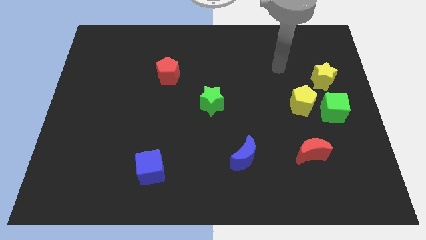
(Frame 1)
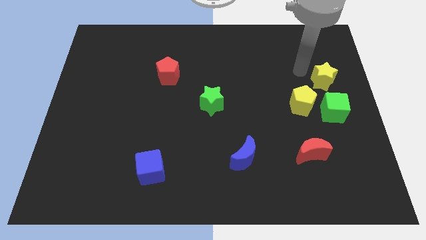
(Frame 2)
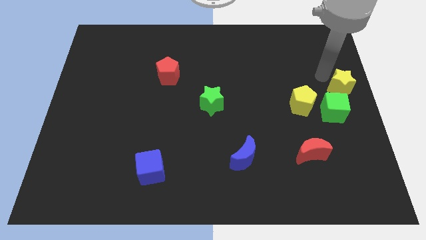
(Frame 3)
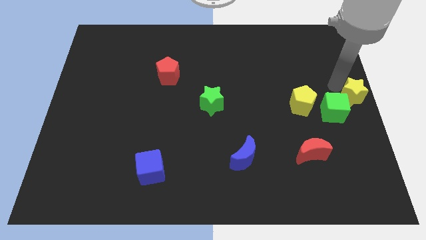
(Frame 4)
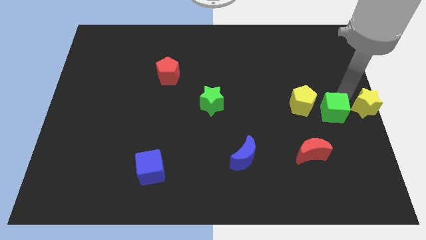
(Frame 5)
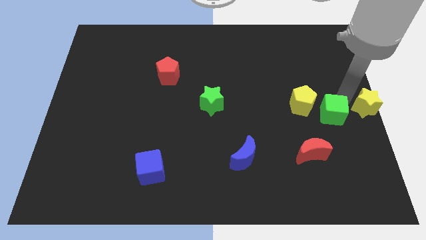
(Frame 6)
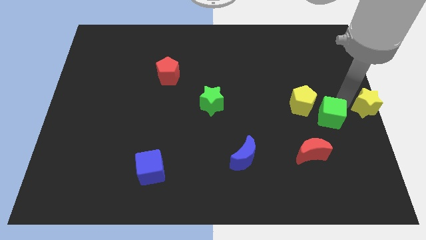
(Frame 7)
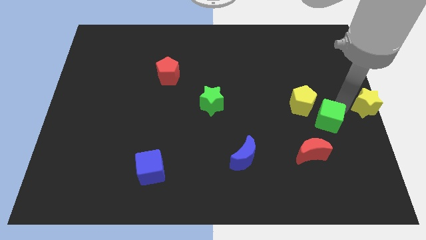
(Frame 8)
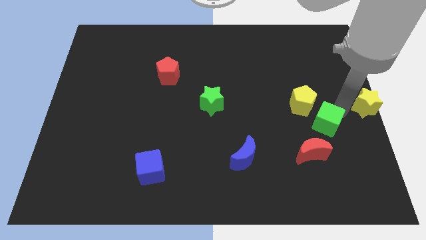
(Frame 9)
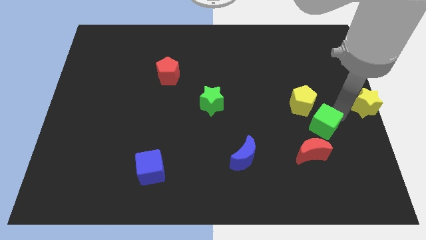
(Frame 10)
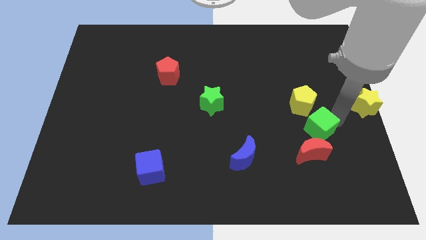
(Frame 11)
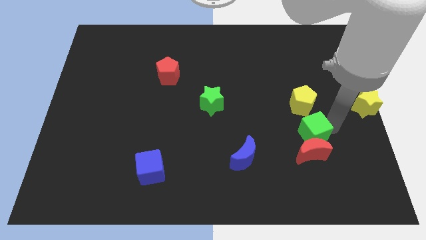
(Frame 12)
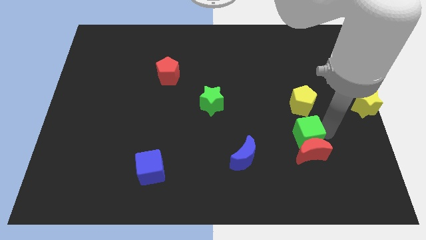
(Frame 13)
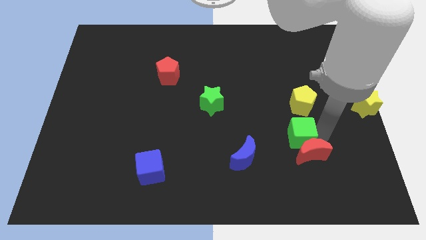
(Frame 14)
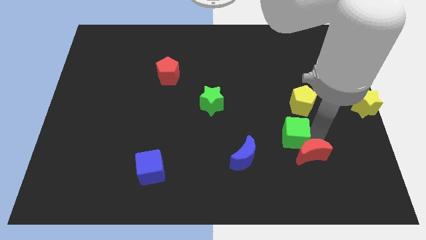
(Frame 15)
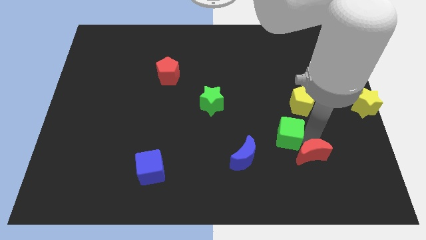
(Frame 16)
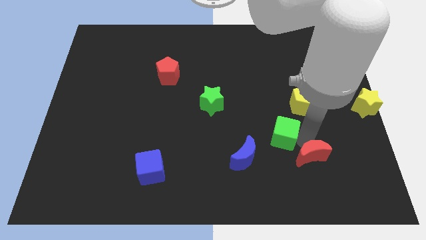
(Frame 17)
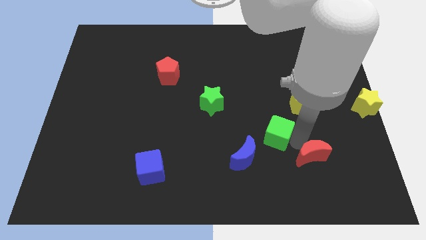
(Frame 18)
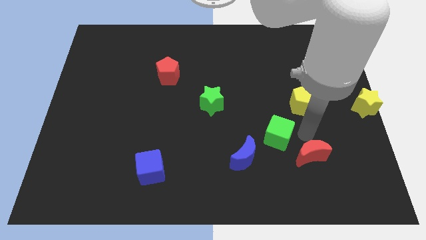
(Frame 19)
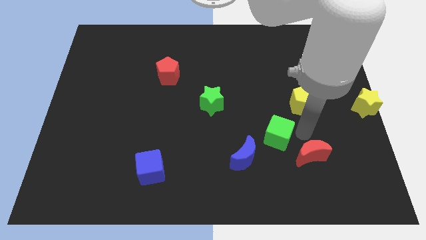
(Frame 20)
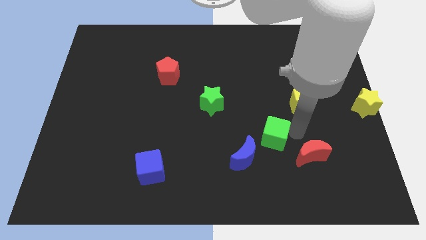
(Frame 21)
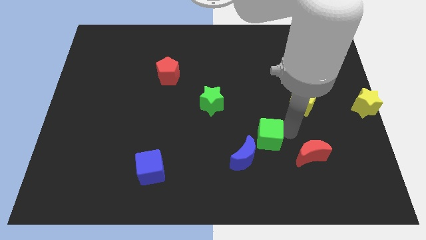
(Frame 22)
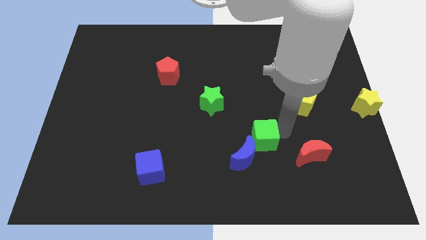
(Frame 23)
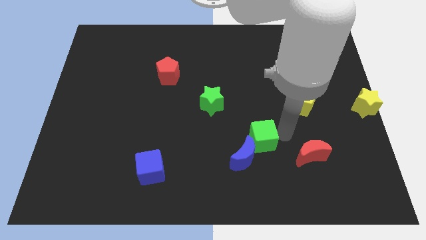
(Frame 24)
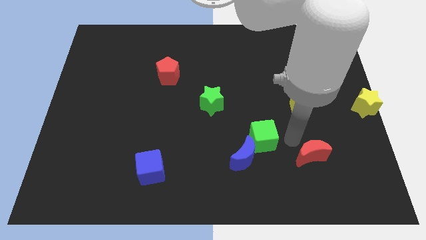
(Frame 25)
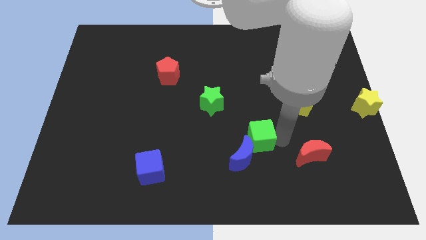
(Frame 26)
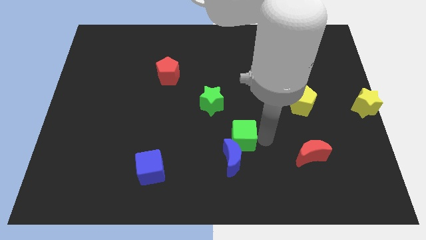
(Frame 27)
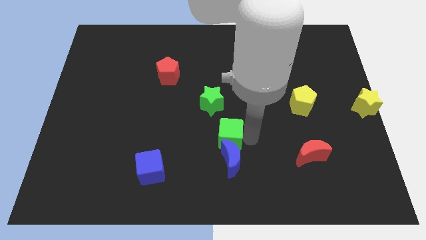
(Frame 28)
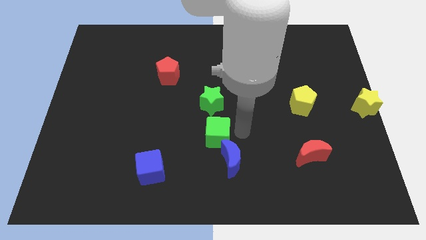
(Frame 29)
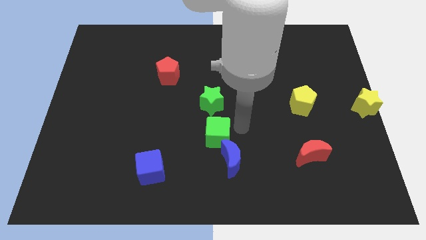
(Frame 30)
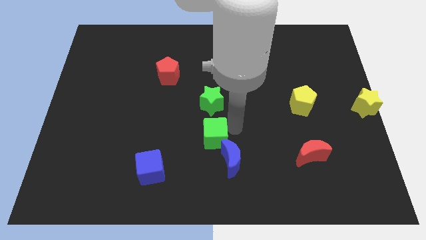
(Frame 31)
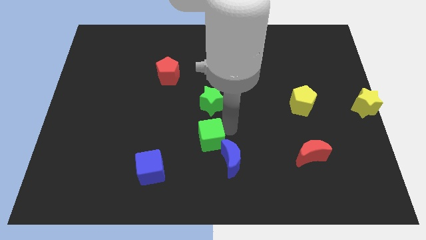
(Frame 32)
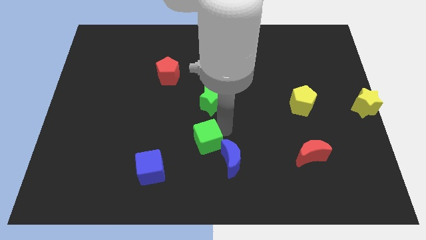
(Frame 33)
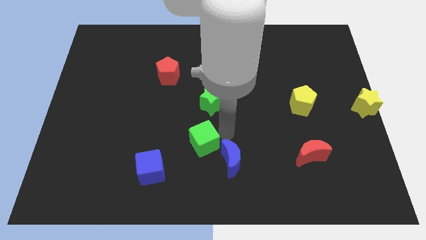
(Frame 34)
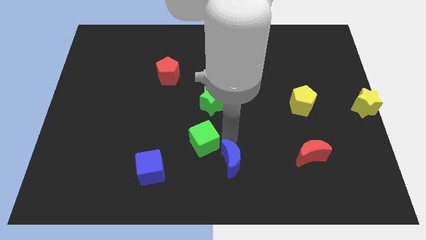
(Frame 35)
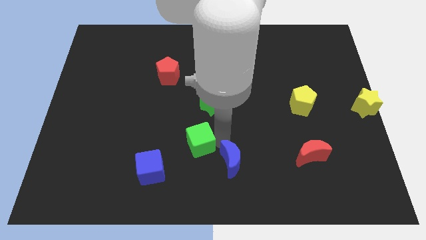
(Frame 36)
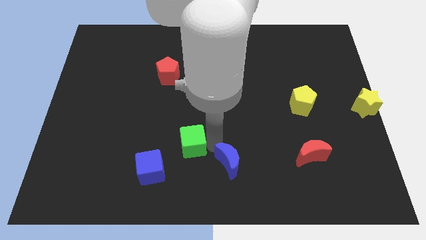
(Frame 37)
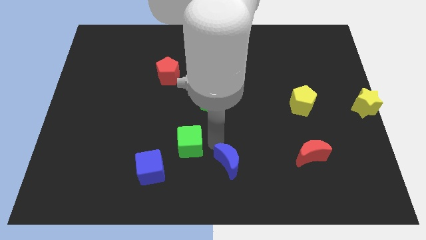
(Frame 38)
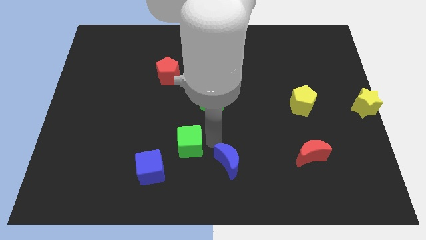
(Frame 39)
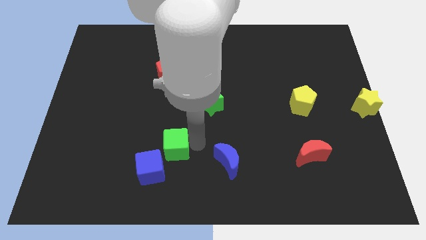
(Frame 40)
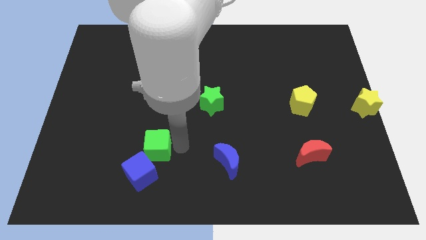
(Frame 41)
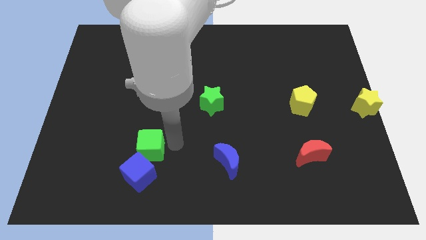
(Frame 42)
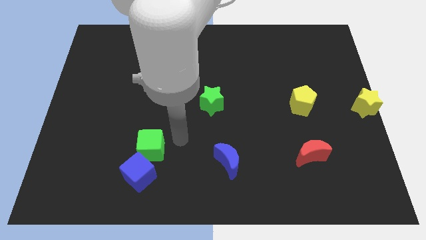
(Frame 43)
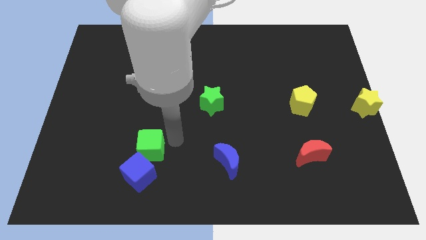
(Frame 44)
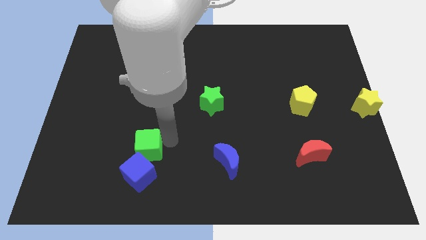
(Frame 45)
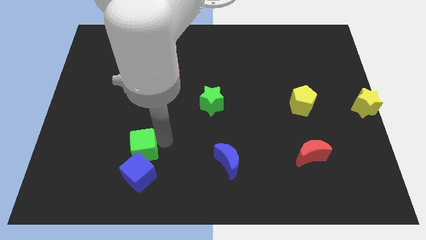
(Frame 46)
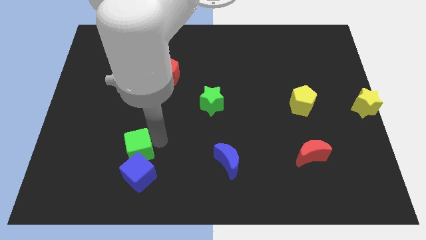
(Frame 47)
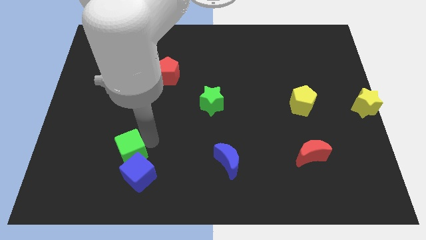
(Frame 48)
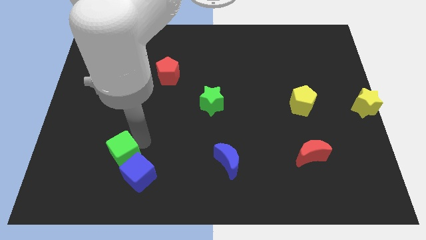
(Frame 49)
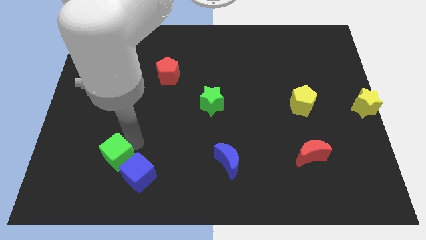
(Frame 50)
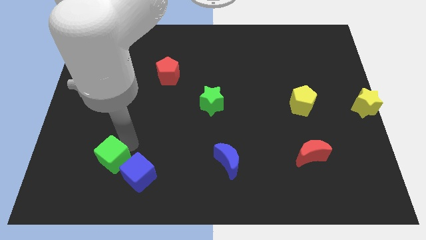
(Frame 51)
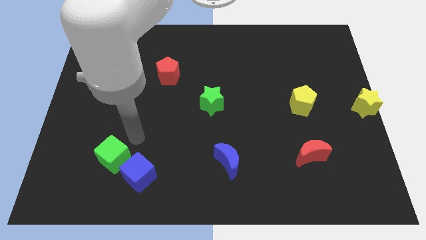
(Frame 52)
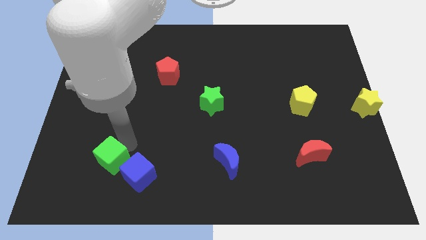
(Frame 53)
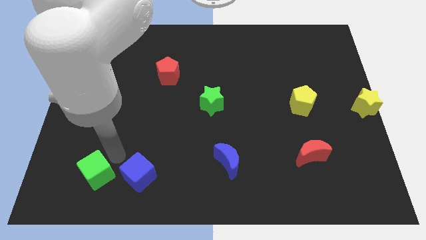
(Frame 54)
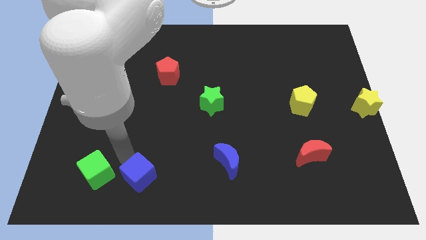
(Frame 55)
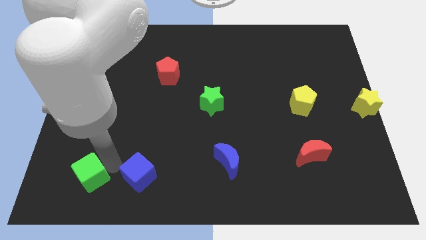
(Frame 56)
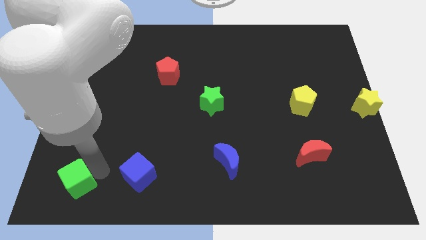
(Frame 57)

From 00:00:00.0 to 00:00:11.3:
push the green cube to the bottom left of the board
